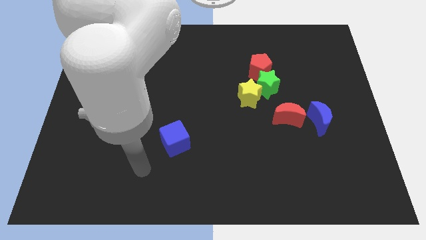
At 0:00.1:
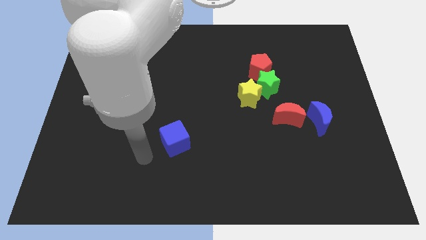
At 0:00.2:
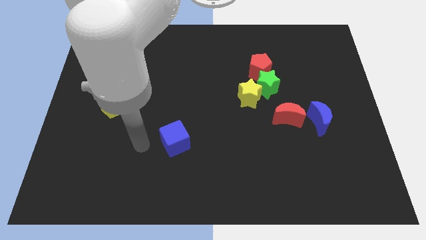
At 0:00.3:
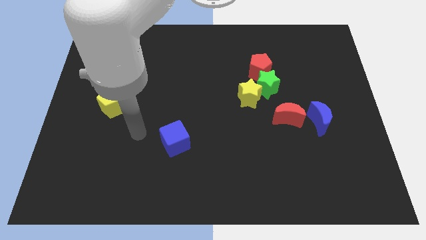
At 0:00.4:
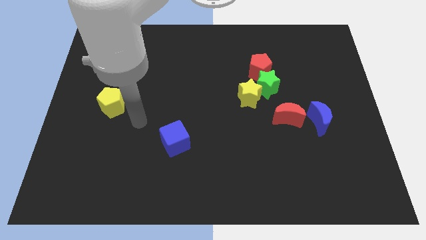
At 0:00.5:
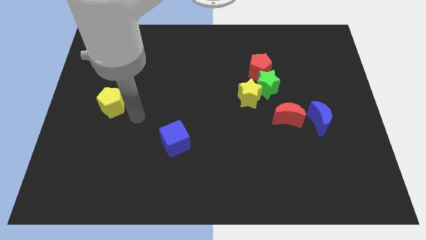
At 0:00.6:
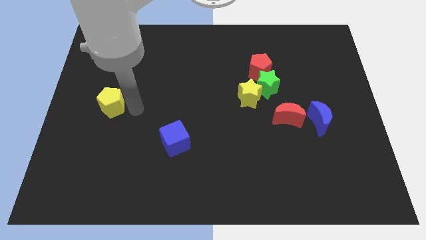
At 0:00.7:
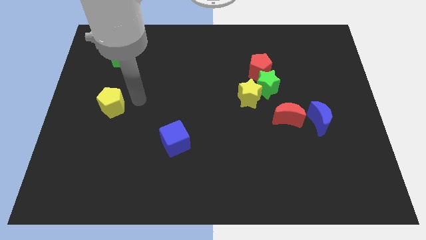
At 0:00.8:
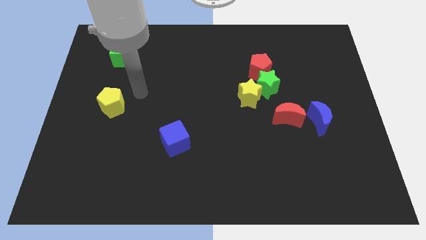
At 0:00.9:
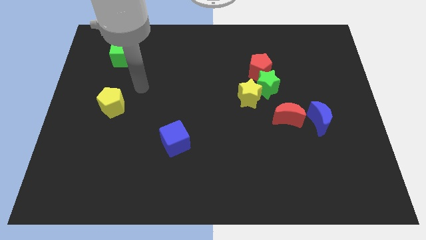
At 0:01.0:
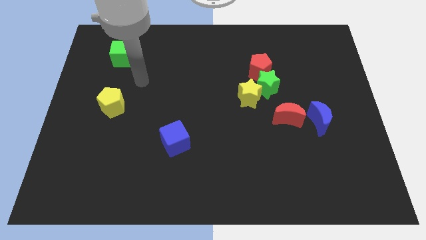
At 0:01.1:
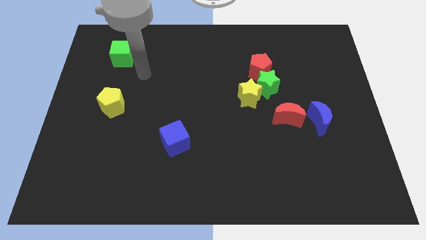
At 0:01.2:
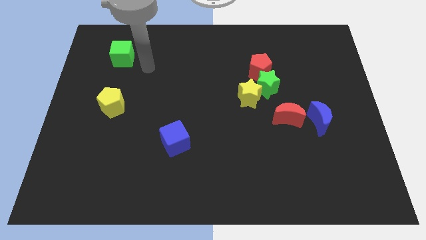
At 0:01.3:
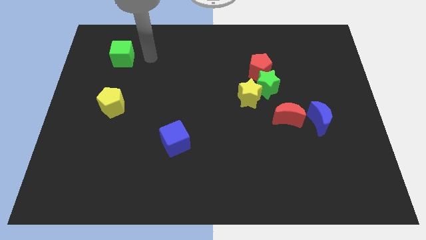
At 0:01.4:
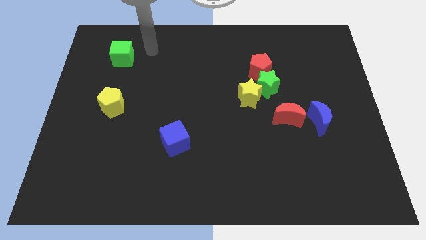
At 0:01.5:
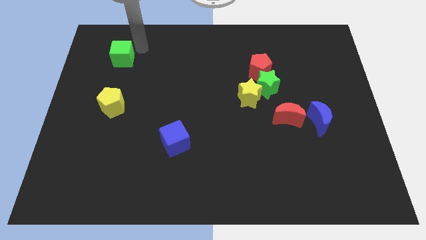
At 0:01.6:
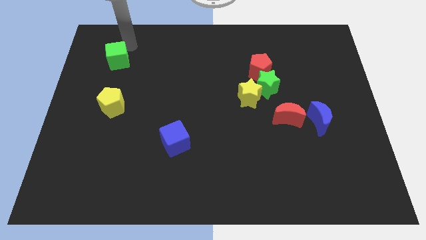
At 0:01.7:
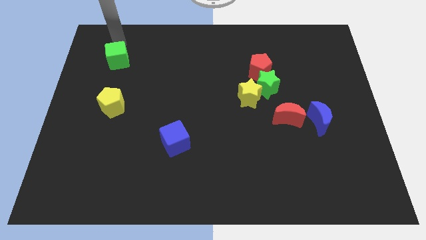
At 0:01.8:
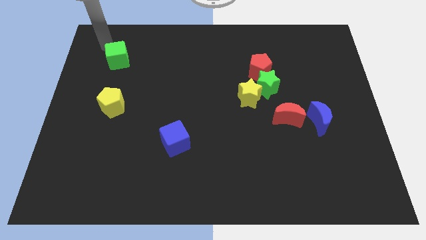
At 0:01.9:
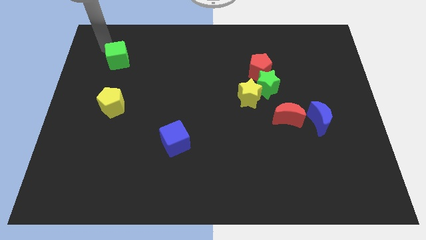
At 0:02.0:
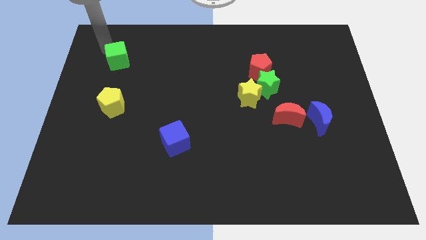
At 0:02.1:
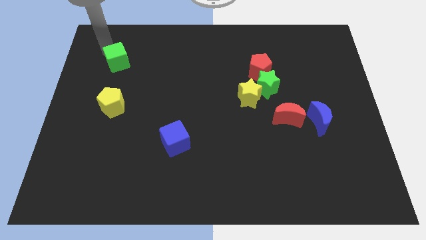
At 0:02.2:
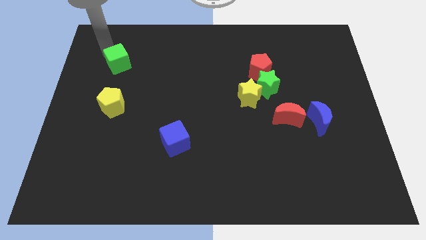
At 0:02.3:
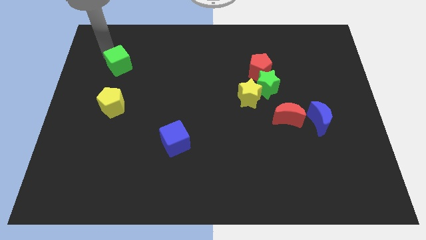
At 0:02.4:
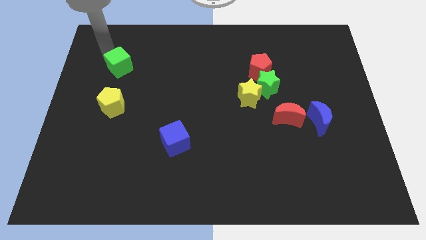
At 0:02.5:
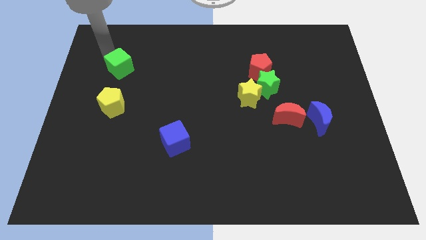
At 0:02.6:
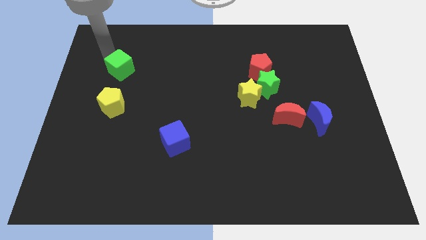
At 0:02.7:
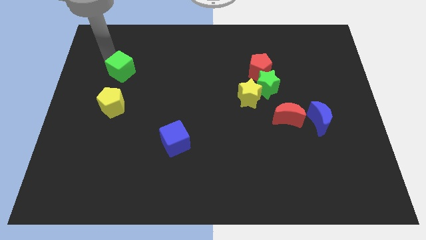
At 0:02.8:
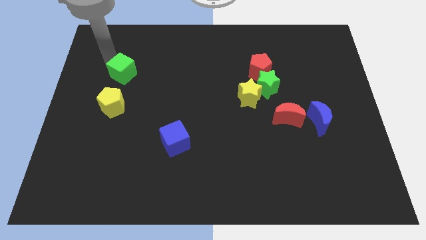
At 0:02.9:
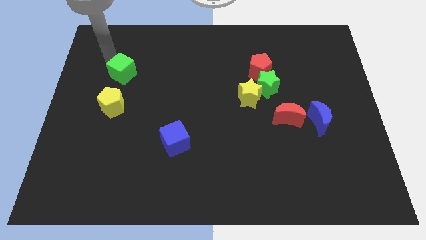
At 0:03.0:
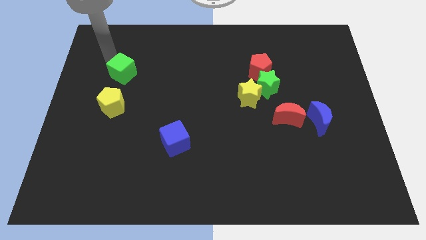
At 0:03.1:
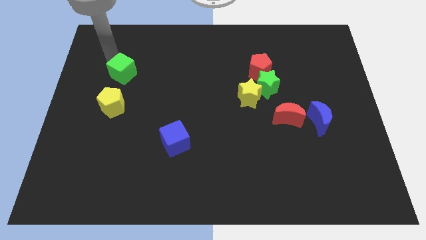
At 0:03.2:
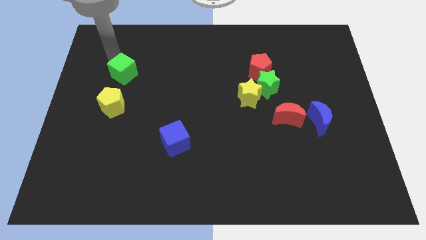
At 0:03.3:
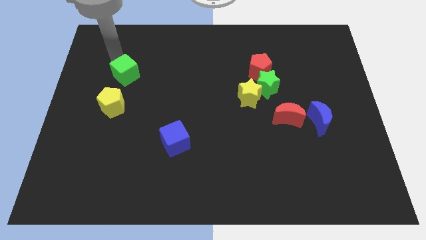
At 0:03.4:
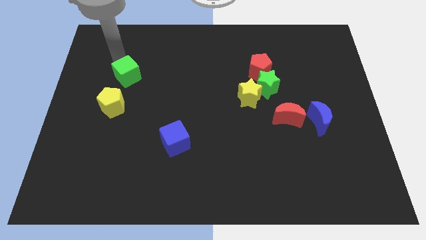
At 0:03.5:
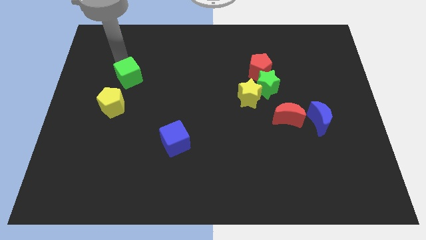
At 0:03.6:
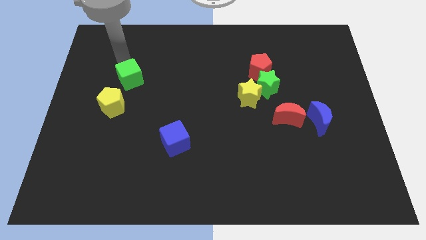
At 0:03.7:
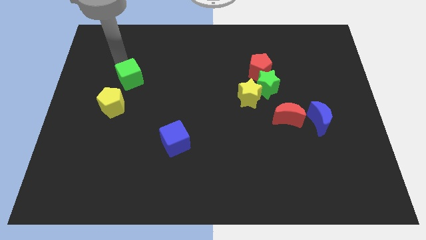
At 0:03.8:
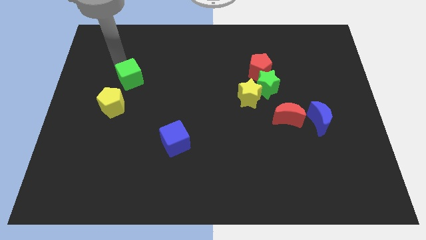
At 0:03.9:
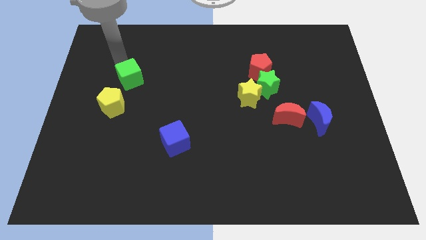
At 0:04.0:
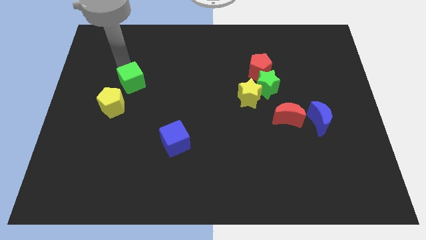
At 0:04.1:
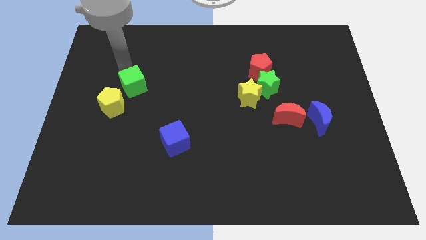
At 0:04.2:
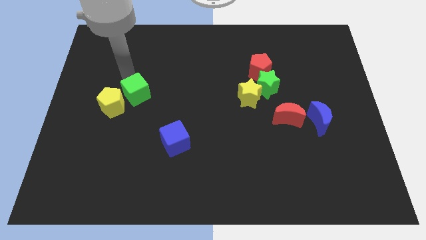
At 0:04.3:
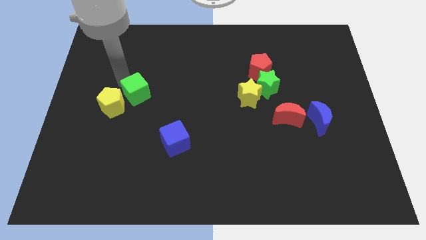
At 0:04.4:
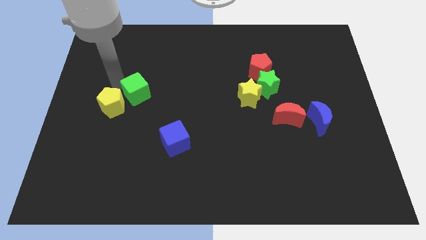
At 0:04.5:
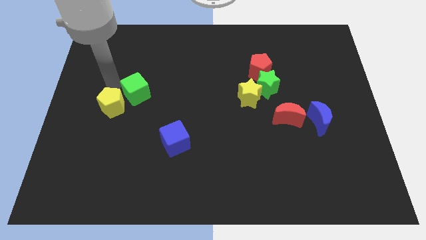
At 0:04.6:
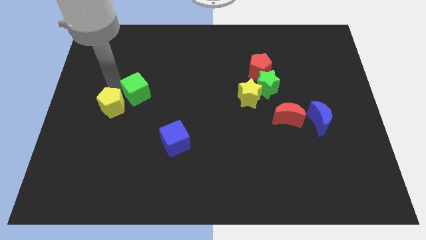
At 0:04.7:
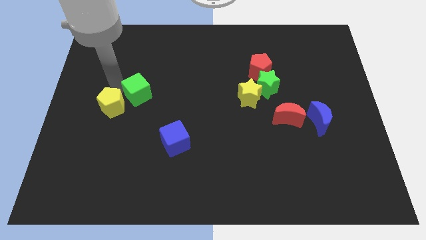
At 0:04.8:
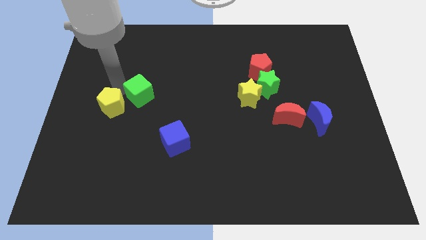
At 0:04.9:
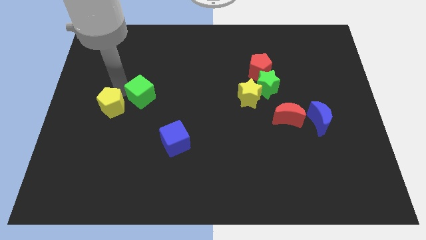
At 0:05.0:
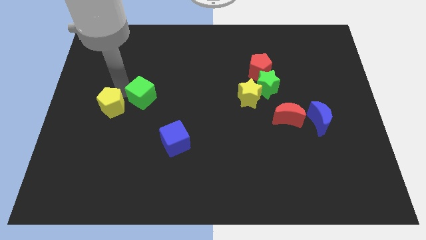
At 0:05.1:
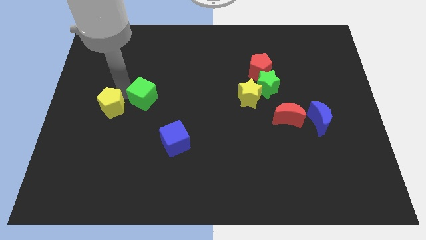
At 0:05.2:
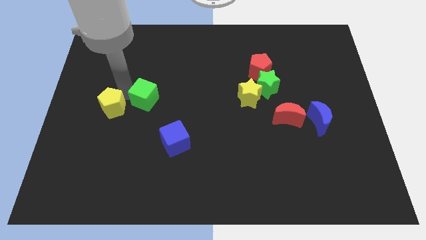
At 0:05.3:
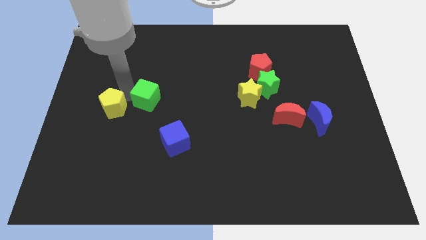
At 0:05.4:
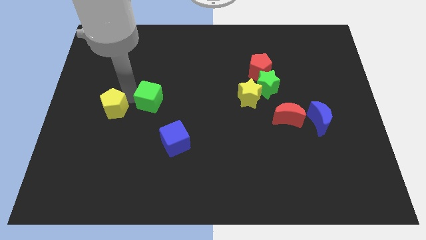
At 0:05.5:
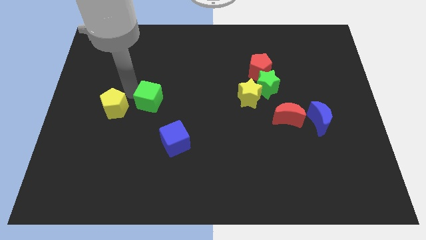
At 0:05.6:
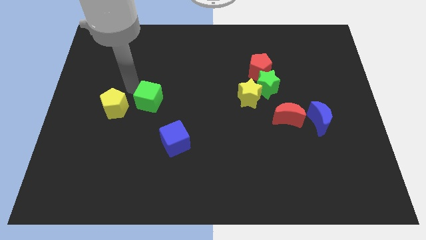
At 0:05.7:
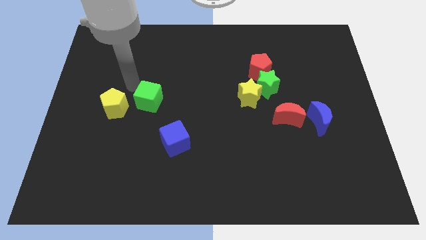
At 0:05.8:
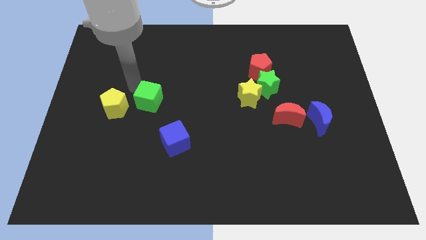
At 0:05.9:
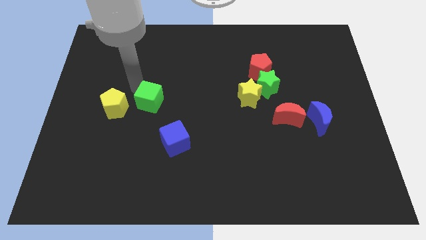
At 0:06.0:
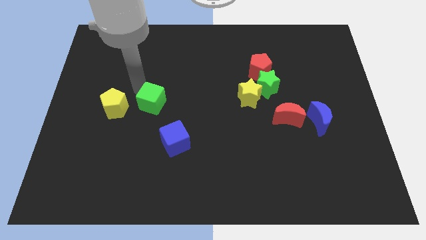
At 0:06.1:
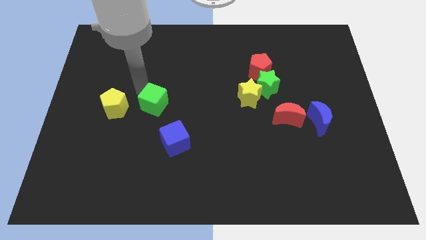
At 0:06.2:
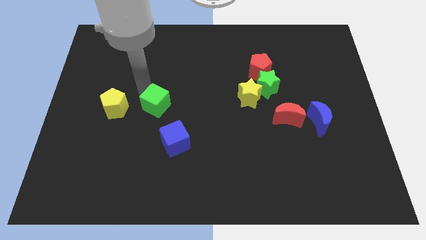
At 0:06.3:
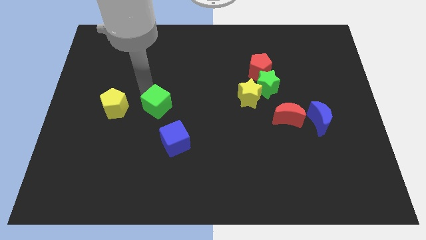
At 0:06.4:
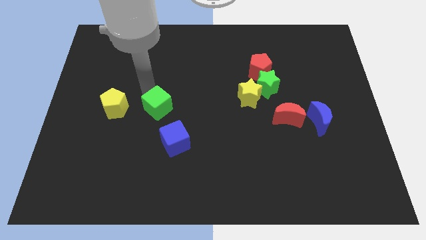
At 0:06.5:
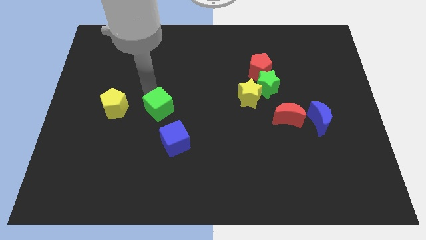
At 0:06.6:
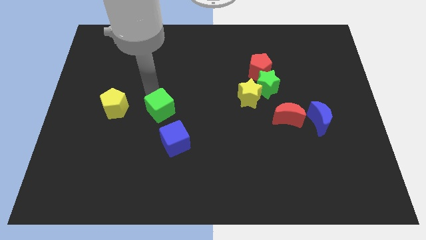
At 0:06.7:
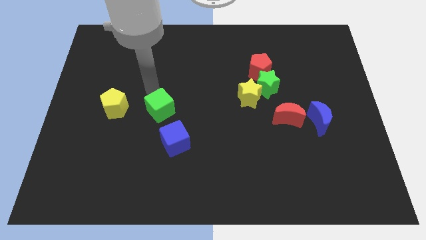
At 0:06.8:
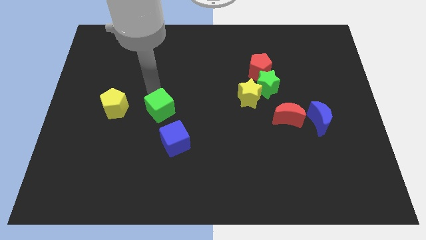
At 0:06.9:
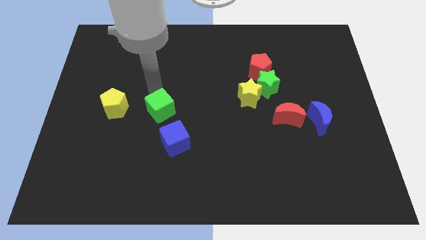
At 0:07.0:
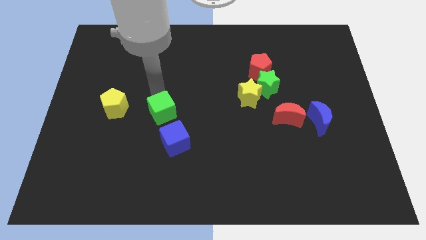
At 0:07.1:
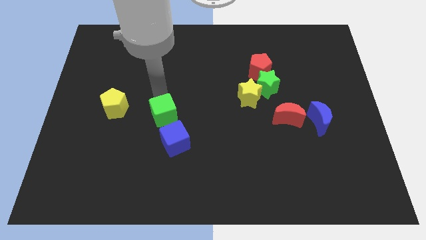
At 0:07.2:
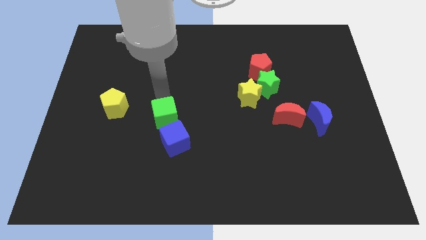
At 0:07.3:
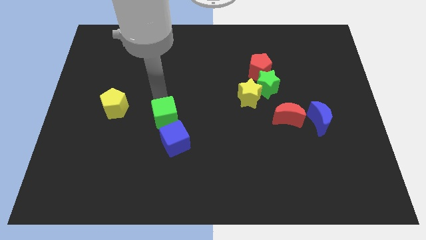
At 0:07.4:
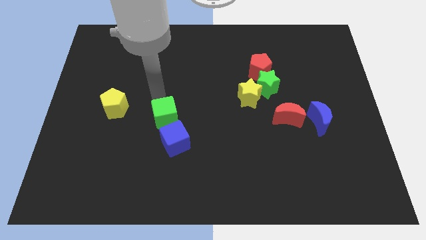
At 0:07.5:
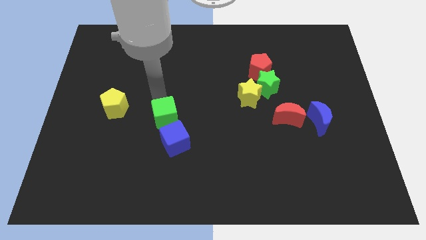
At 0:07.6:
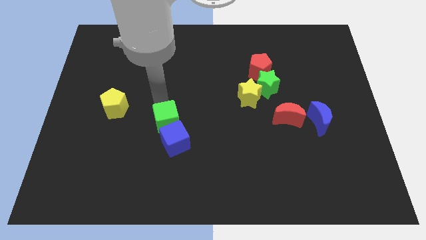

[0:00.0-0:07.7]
slide the green cube next to the blue cube

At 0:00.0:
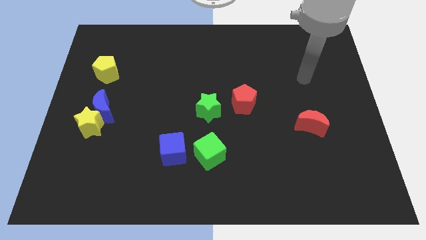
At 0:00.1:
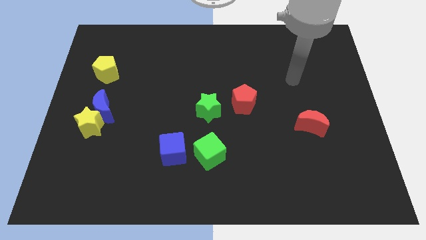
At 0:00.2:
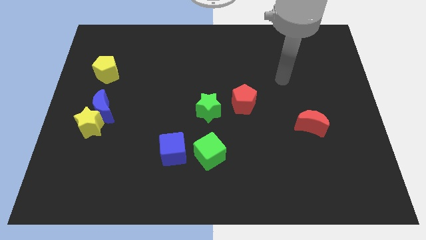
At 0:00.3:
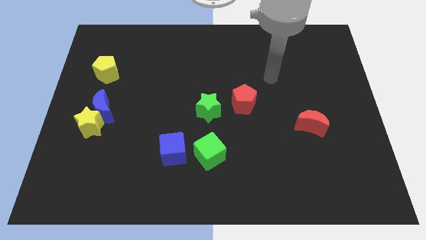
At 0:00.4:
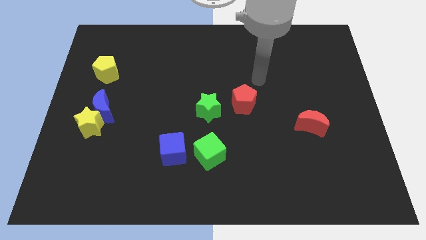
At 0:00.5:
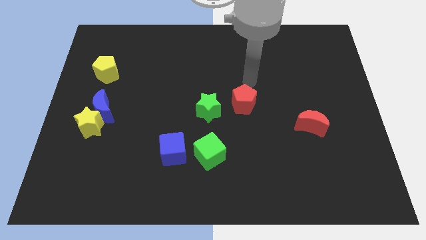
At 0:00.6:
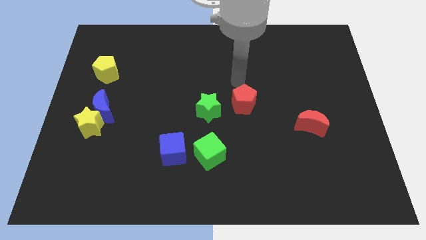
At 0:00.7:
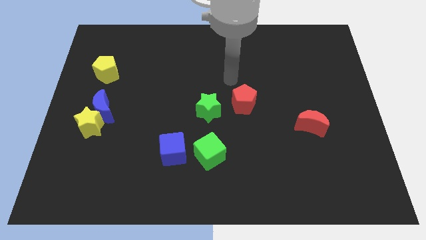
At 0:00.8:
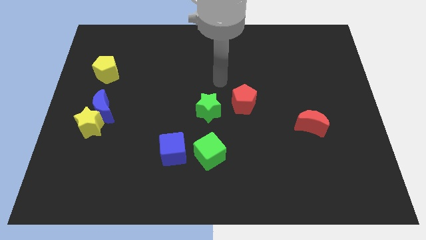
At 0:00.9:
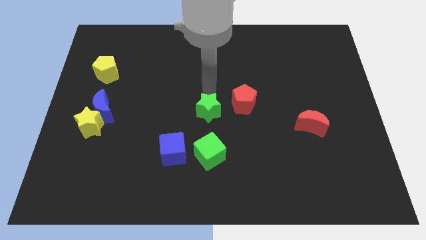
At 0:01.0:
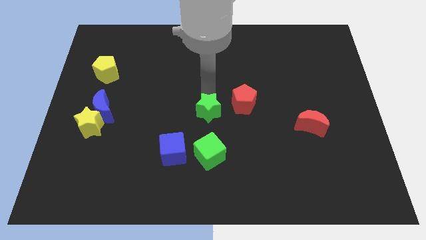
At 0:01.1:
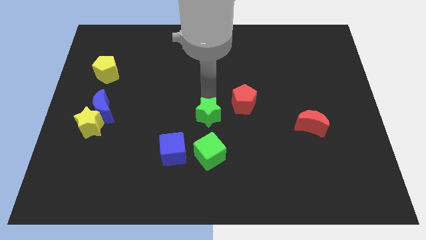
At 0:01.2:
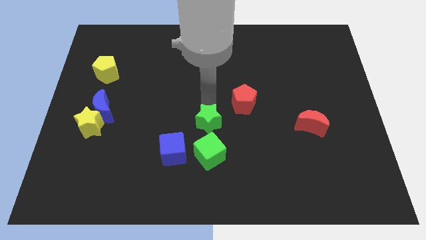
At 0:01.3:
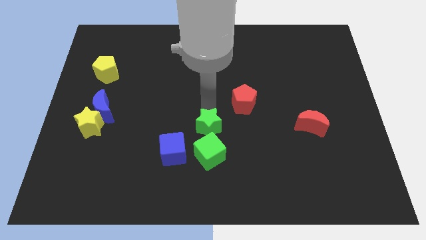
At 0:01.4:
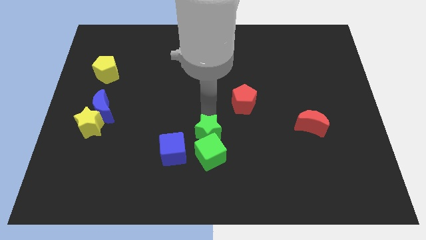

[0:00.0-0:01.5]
push the green star to the green cube
